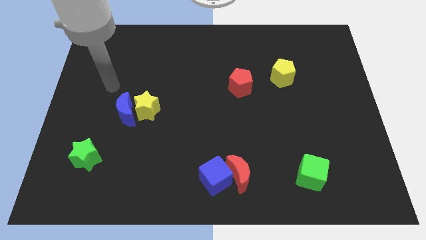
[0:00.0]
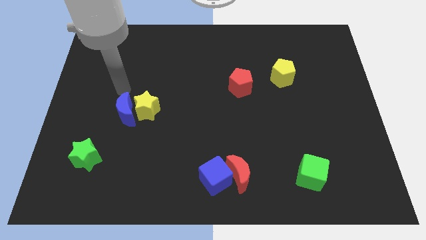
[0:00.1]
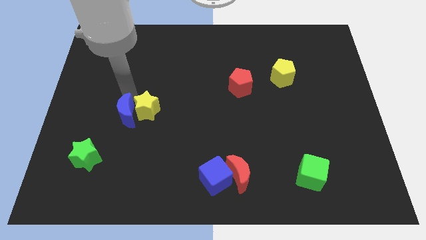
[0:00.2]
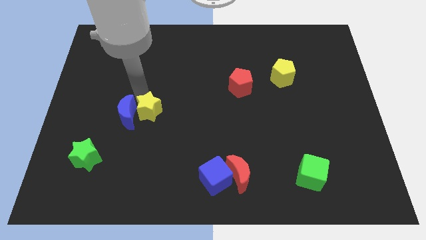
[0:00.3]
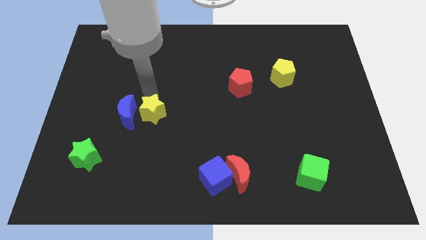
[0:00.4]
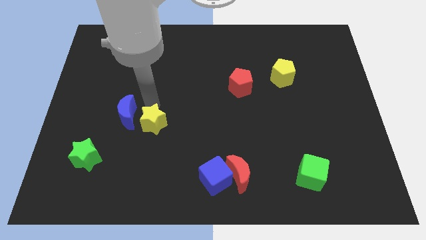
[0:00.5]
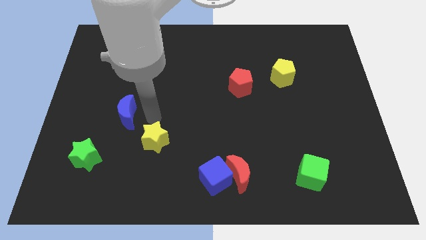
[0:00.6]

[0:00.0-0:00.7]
separate the blue moon from the yellow star

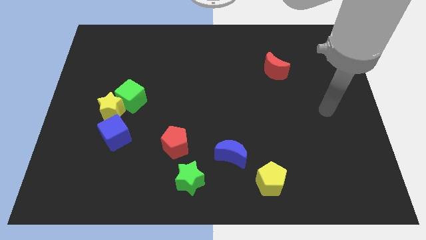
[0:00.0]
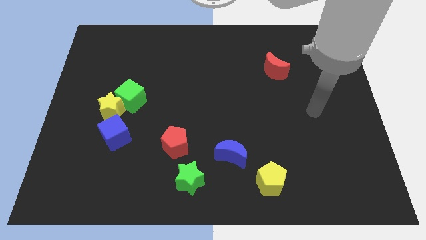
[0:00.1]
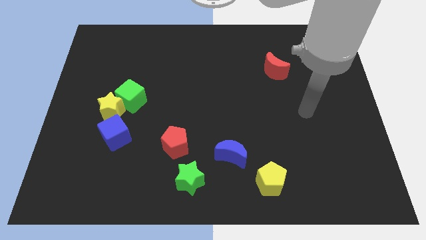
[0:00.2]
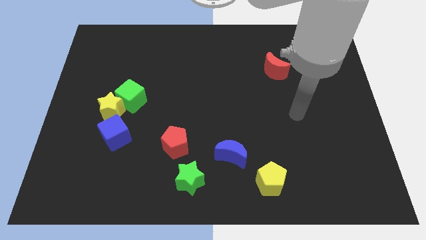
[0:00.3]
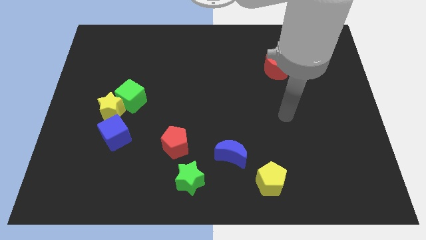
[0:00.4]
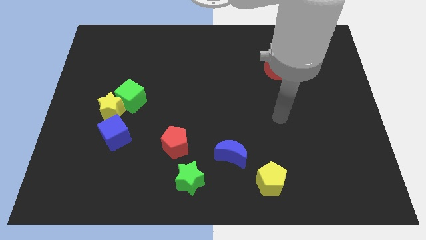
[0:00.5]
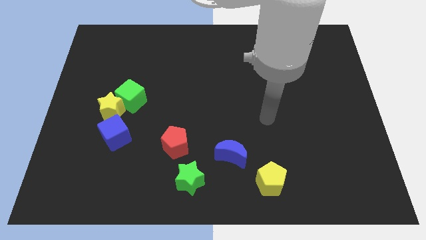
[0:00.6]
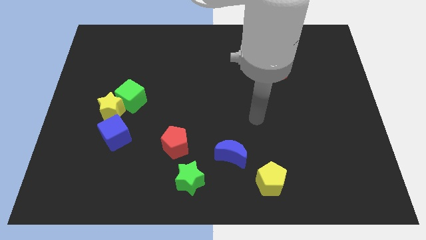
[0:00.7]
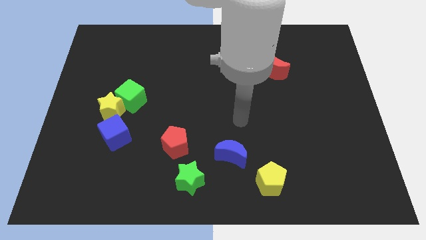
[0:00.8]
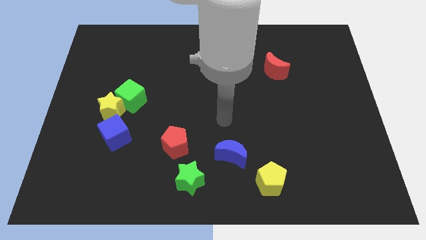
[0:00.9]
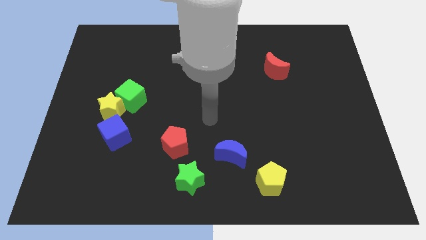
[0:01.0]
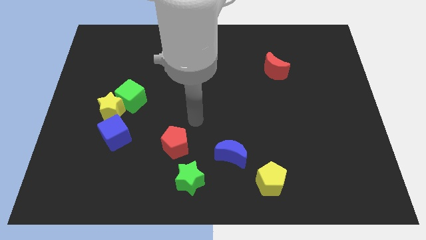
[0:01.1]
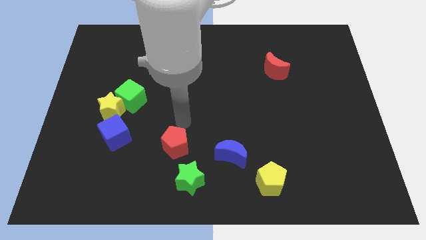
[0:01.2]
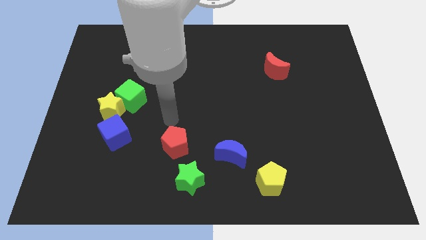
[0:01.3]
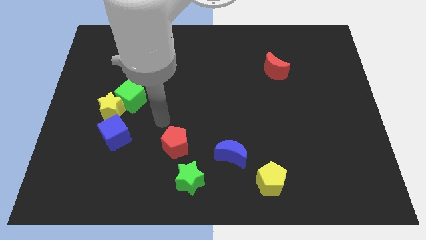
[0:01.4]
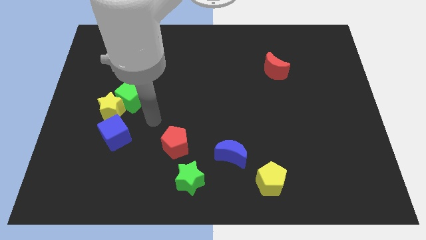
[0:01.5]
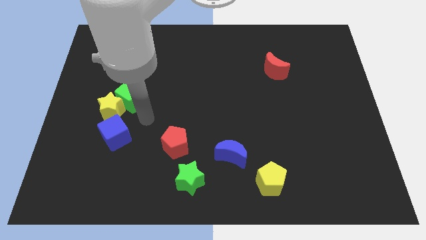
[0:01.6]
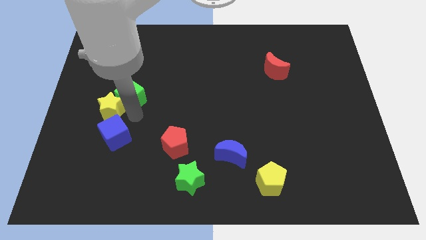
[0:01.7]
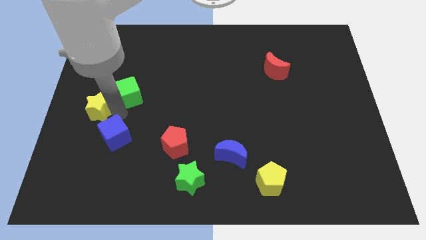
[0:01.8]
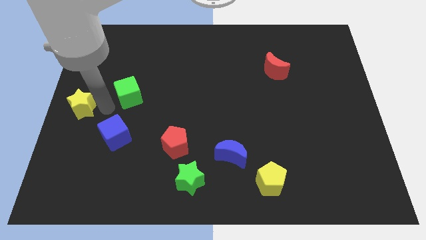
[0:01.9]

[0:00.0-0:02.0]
separate the green cube from the yellow star

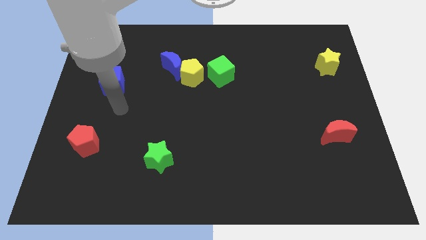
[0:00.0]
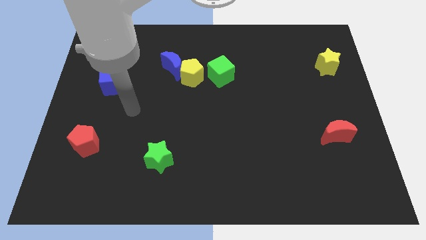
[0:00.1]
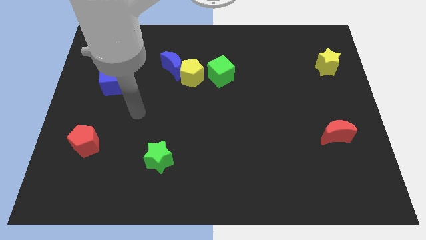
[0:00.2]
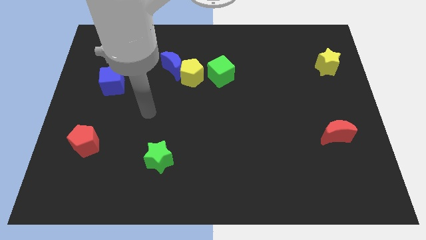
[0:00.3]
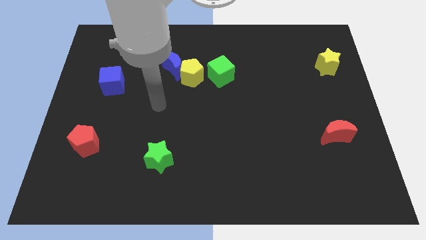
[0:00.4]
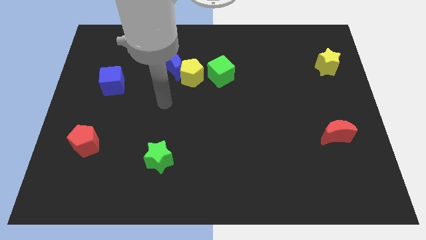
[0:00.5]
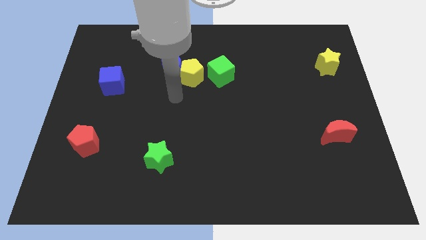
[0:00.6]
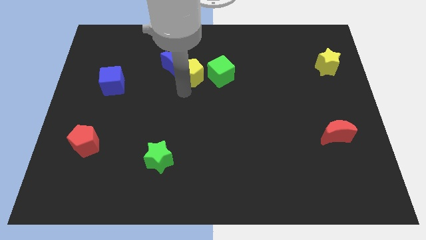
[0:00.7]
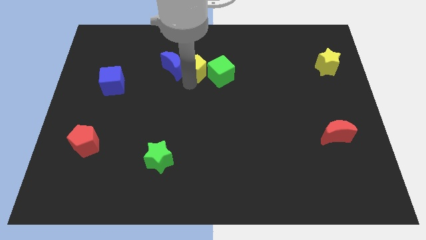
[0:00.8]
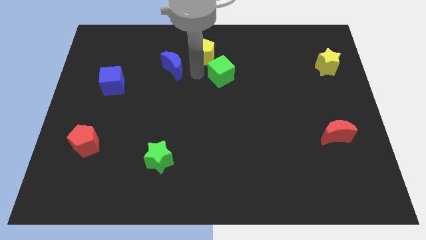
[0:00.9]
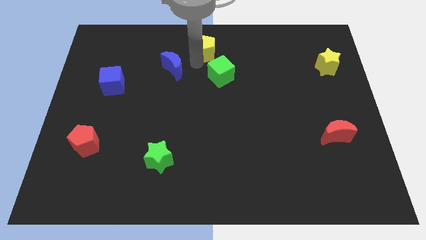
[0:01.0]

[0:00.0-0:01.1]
separate the blue moon from the yellow pentagon

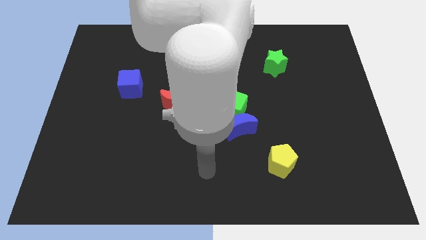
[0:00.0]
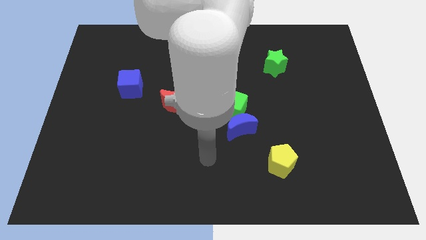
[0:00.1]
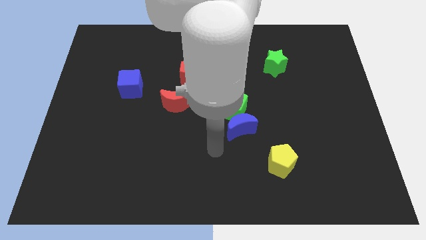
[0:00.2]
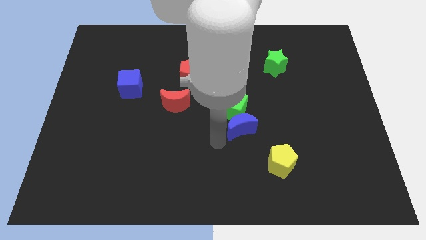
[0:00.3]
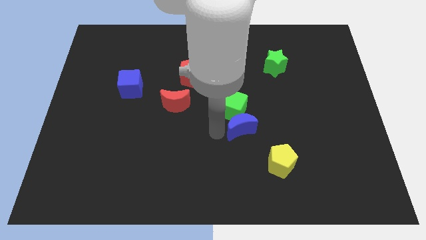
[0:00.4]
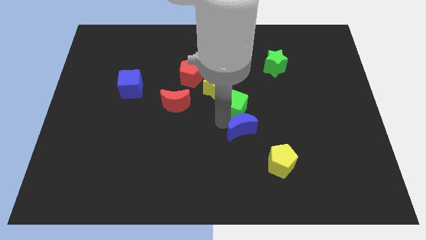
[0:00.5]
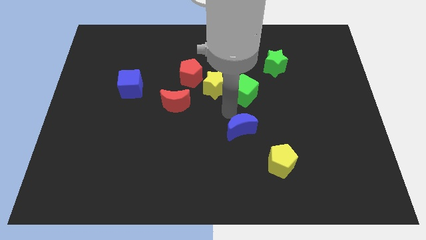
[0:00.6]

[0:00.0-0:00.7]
move the blue moon away from the green cube

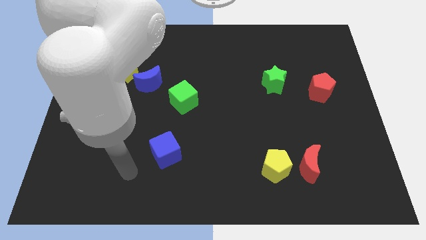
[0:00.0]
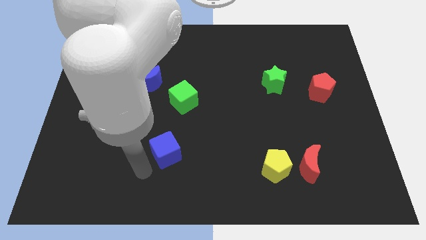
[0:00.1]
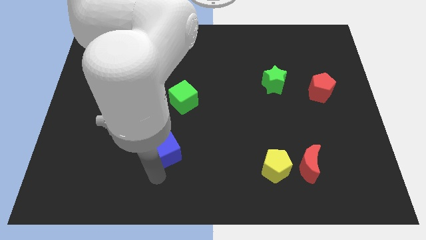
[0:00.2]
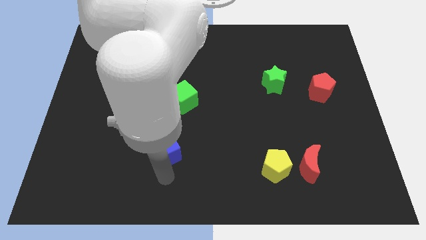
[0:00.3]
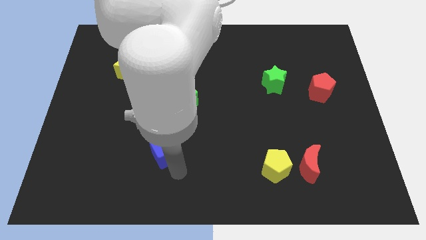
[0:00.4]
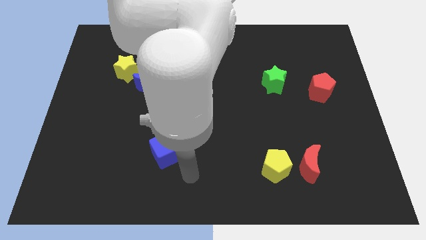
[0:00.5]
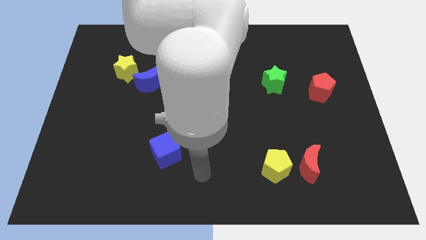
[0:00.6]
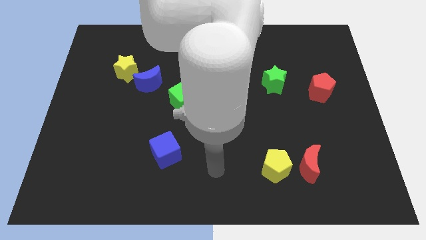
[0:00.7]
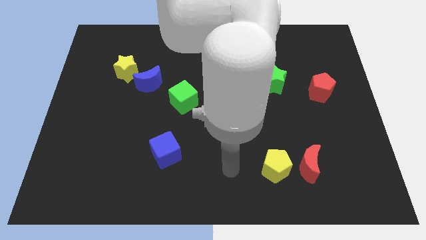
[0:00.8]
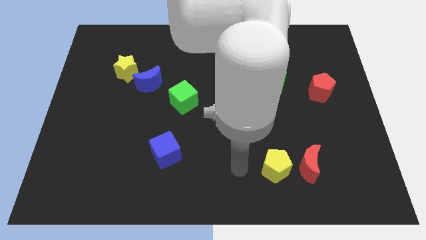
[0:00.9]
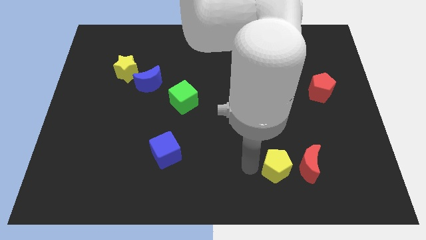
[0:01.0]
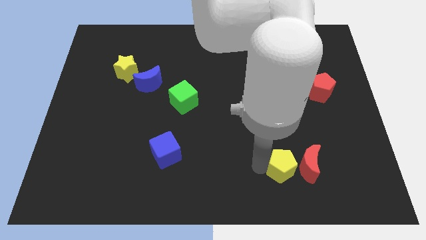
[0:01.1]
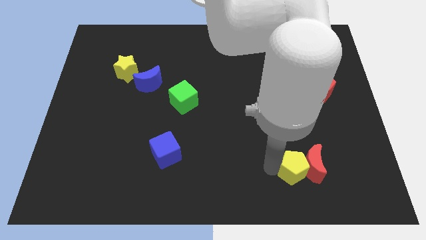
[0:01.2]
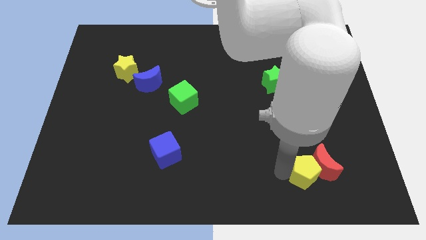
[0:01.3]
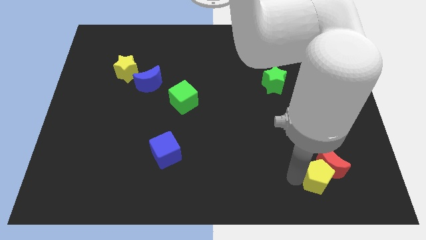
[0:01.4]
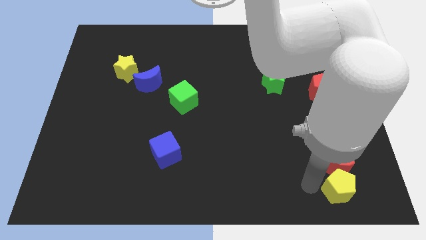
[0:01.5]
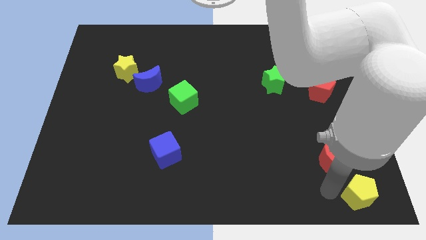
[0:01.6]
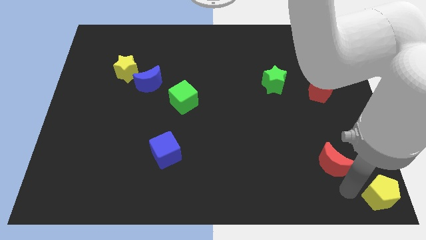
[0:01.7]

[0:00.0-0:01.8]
separate the red moon from the yellow pentagon

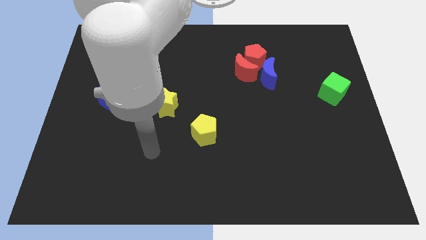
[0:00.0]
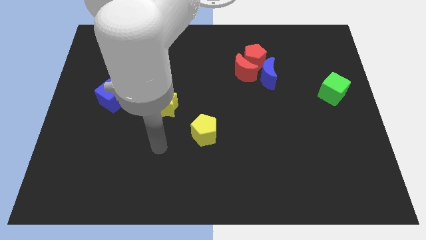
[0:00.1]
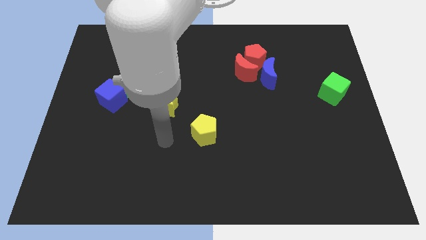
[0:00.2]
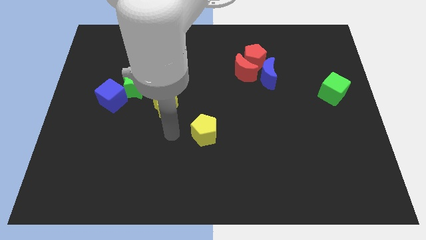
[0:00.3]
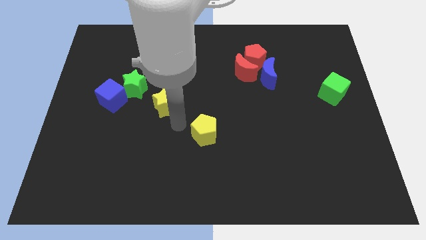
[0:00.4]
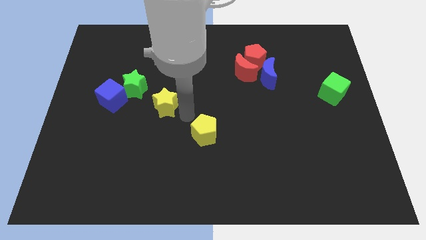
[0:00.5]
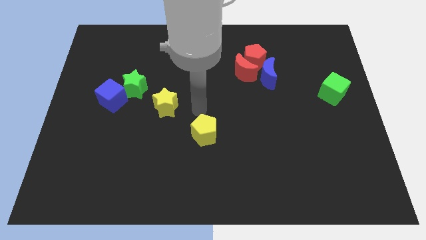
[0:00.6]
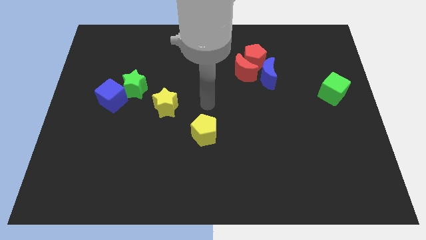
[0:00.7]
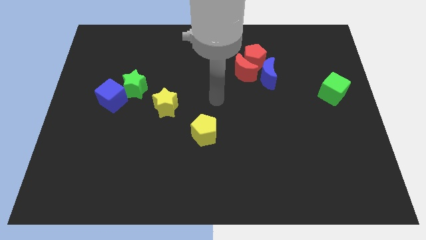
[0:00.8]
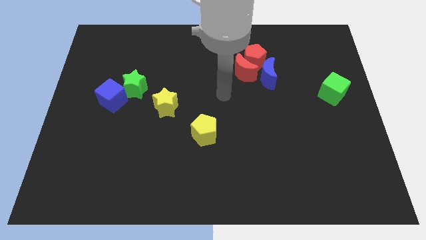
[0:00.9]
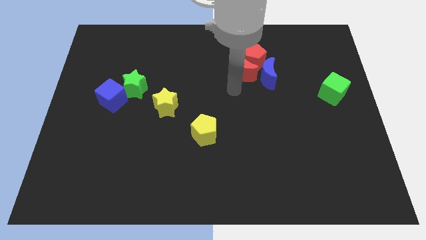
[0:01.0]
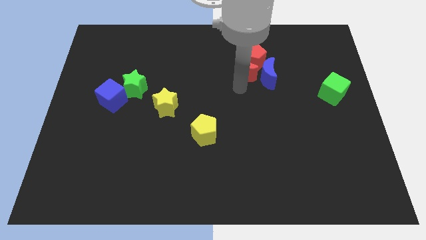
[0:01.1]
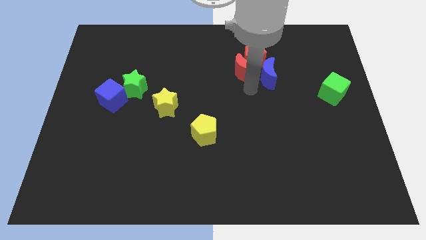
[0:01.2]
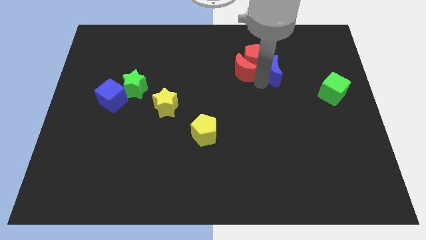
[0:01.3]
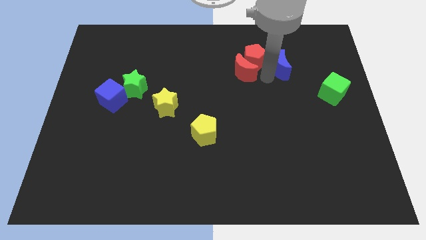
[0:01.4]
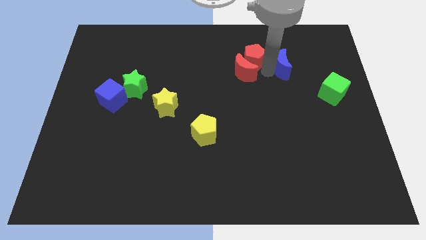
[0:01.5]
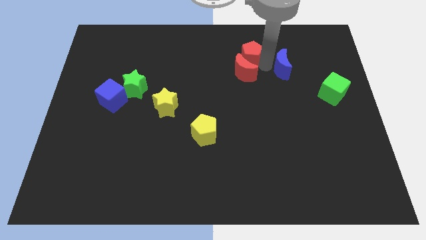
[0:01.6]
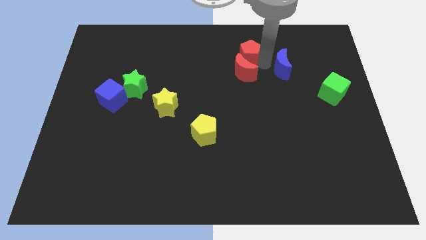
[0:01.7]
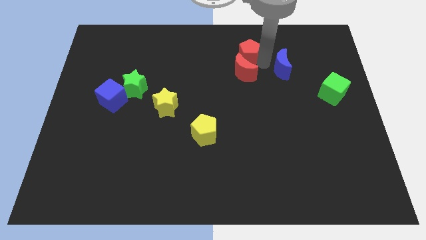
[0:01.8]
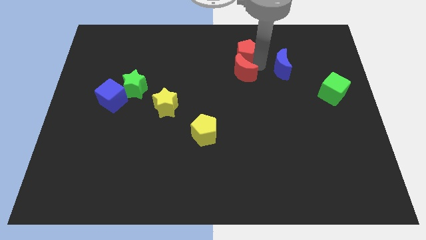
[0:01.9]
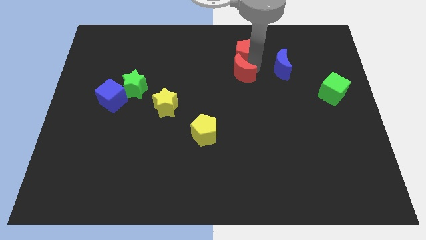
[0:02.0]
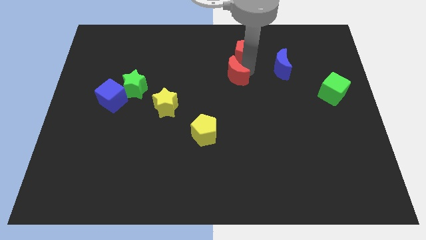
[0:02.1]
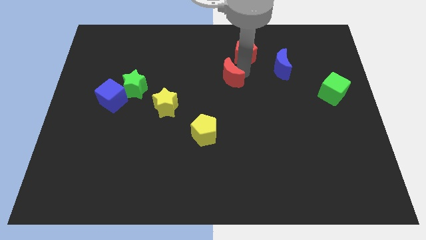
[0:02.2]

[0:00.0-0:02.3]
move the red moon away from the red pentagon and blue moon

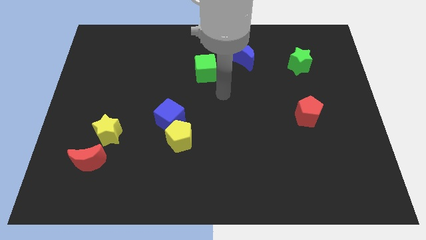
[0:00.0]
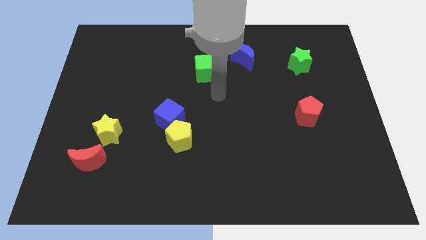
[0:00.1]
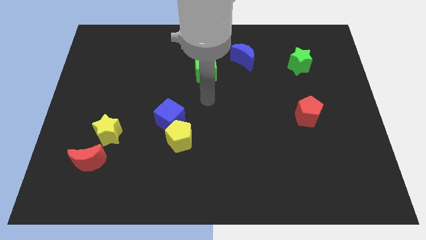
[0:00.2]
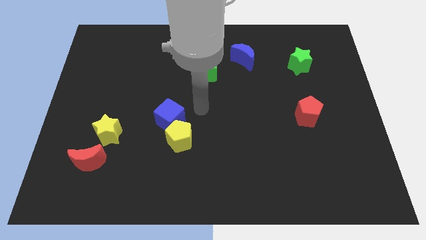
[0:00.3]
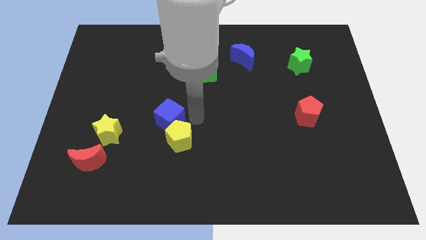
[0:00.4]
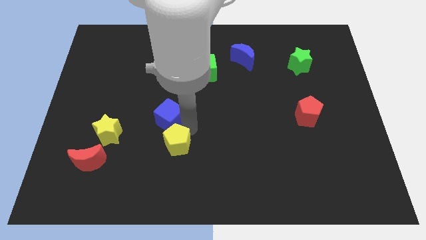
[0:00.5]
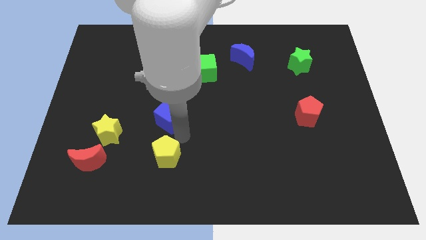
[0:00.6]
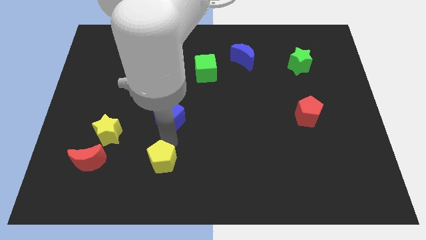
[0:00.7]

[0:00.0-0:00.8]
separate the blue cube from the yellow pentagon

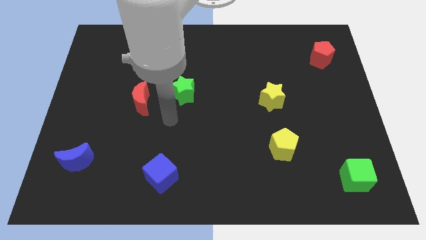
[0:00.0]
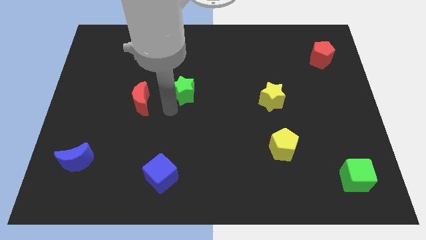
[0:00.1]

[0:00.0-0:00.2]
separate the red moon from the green star
